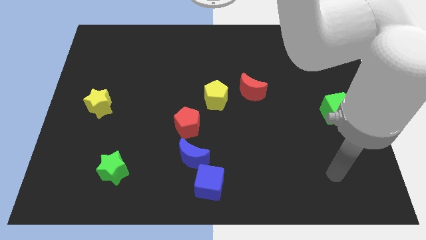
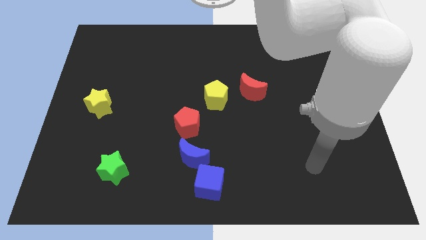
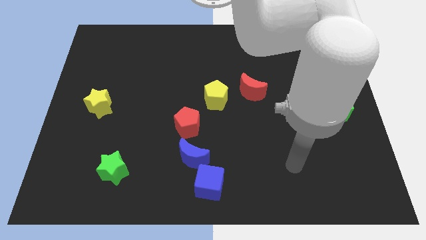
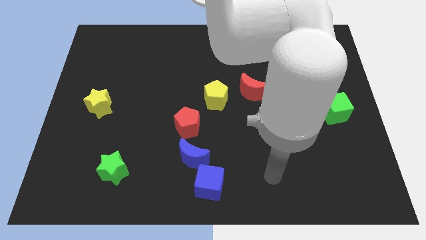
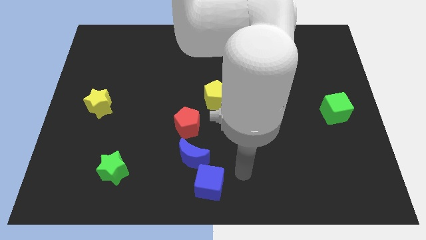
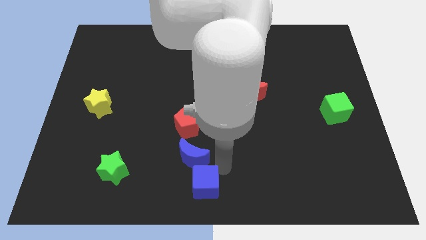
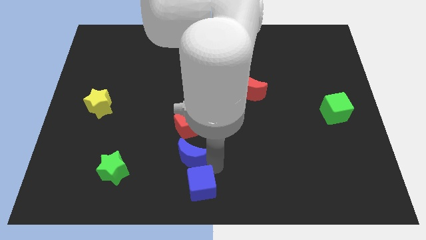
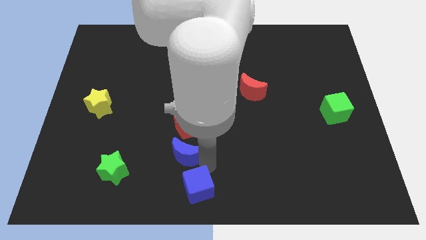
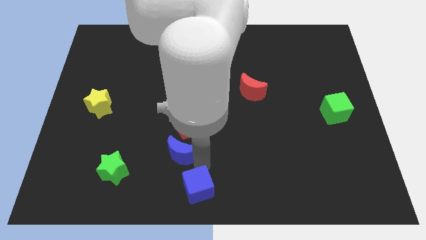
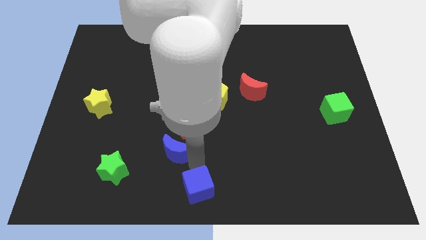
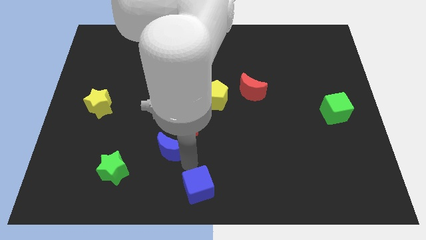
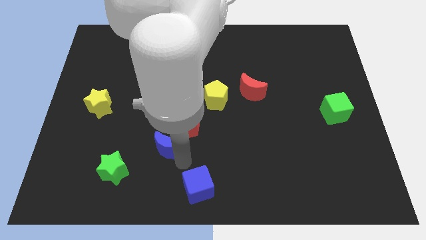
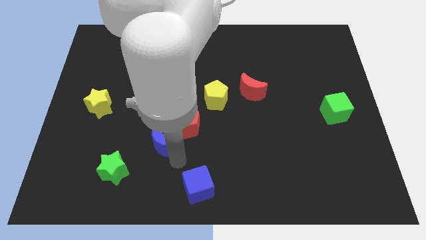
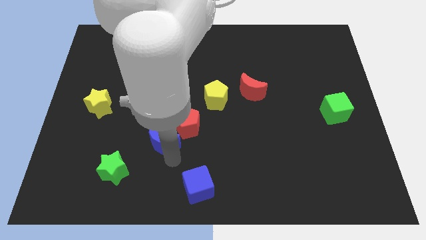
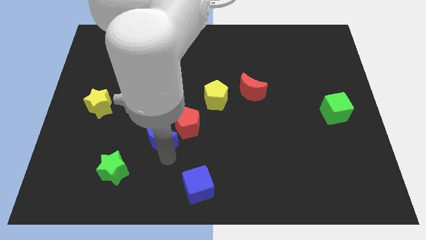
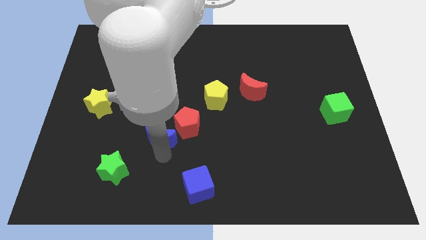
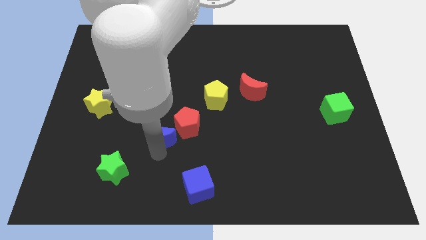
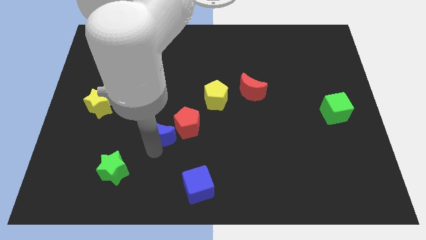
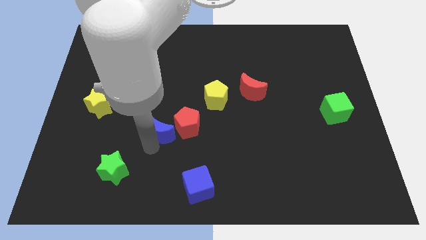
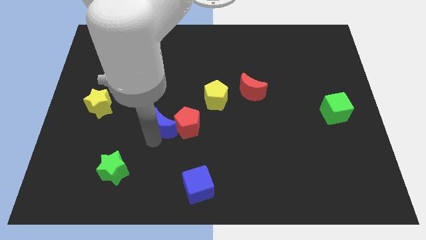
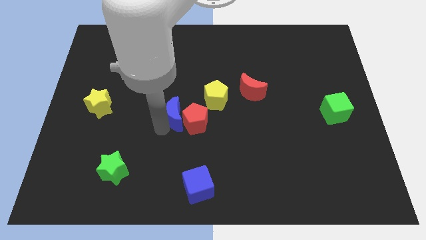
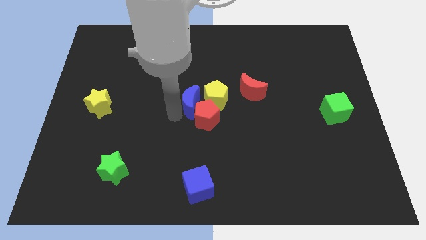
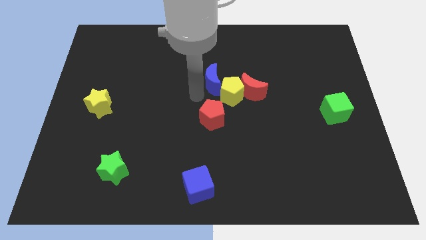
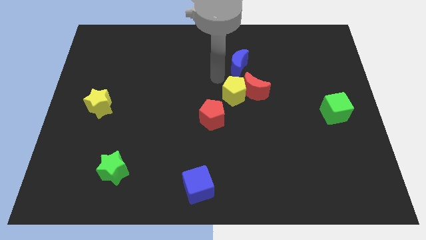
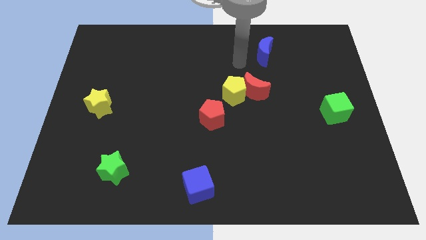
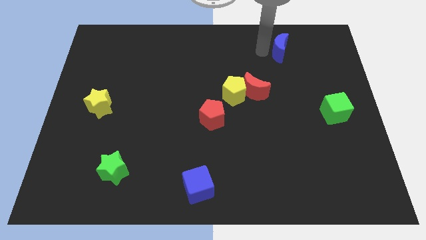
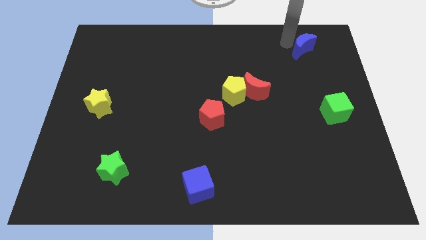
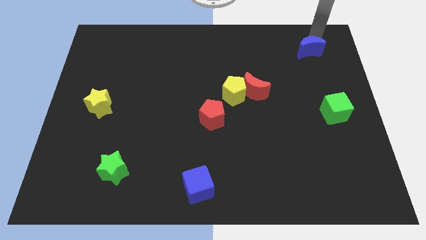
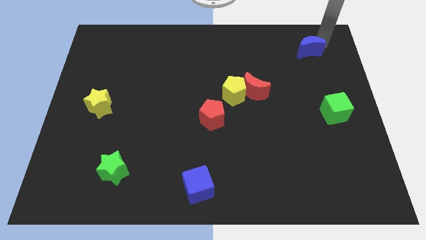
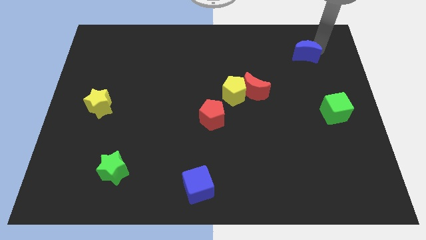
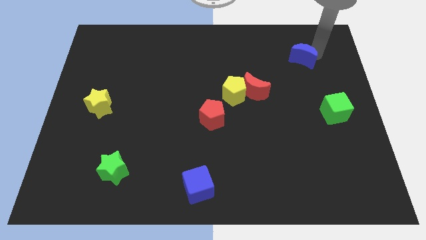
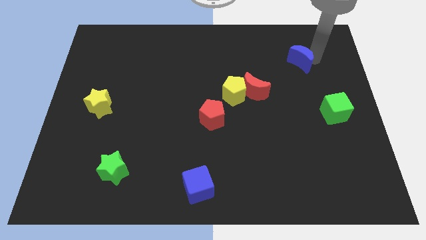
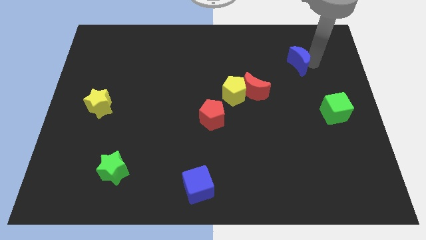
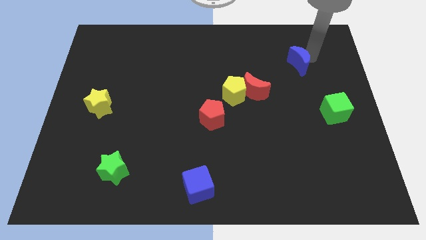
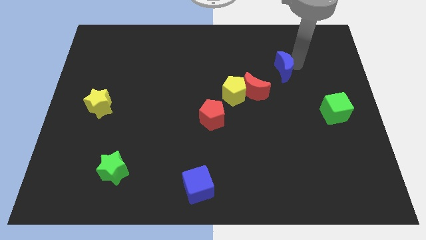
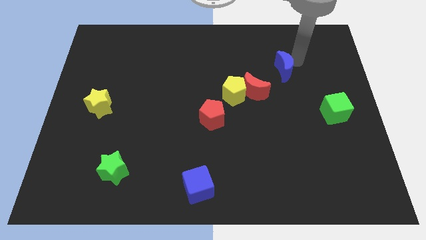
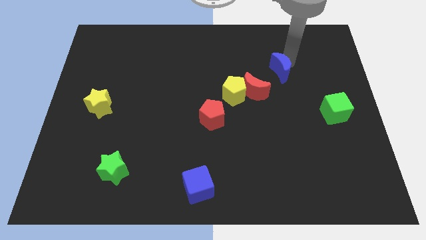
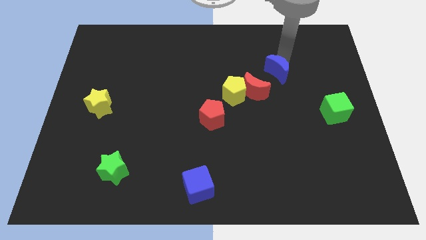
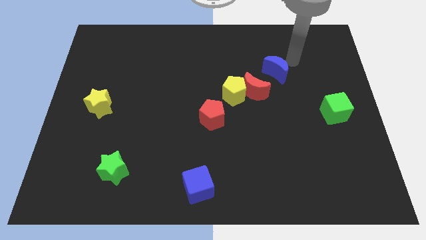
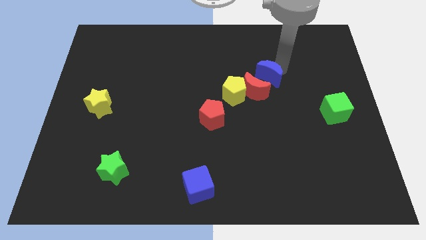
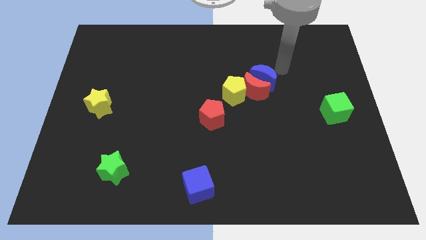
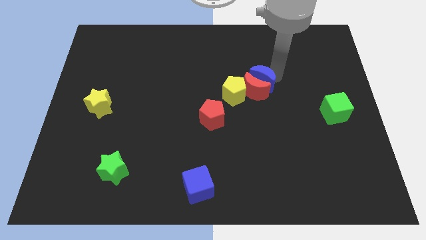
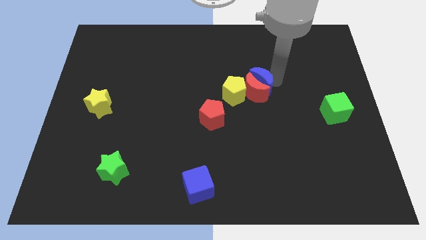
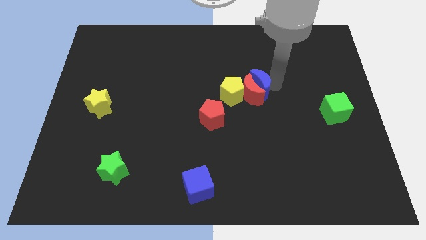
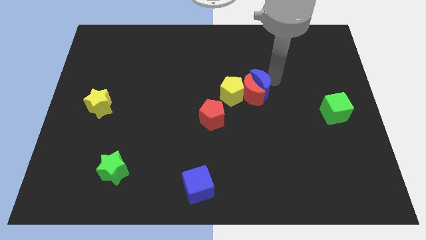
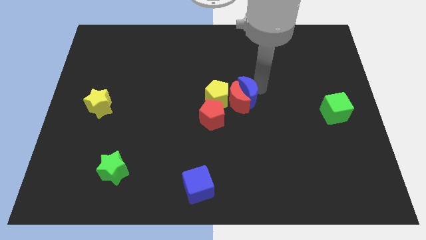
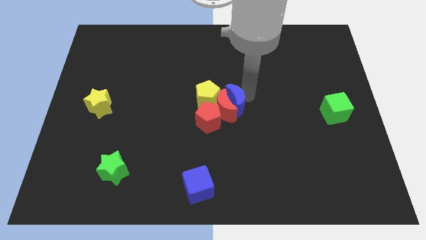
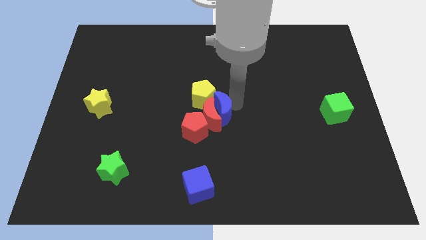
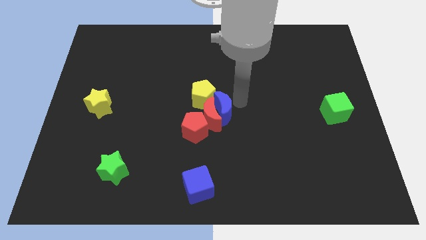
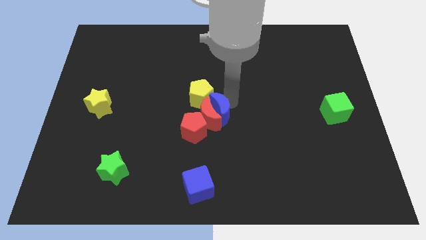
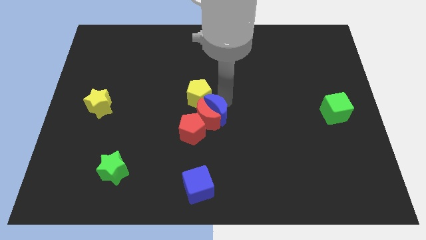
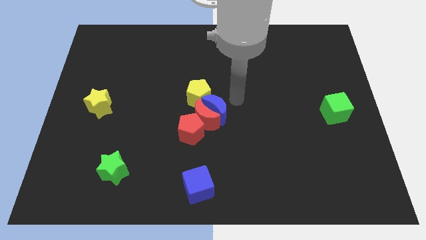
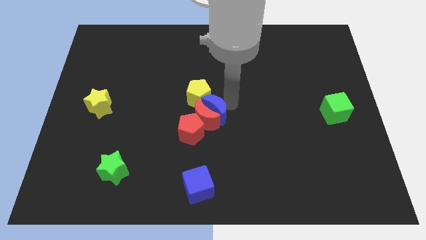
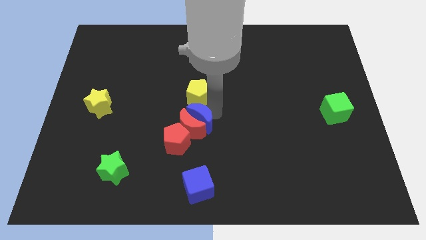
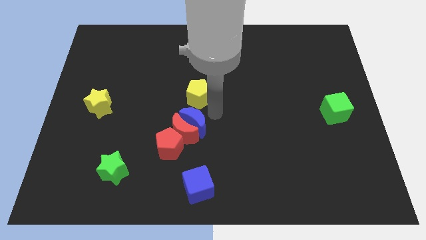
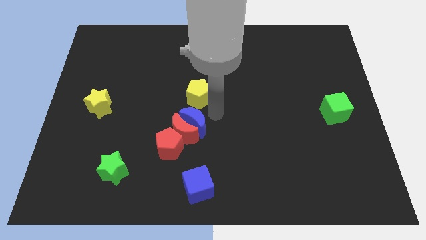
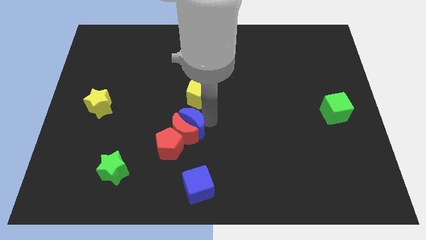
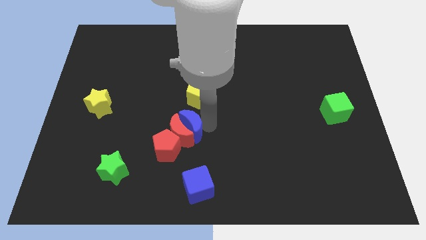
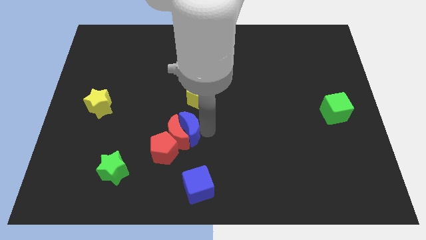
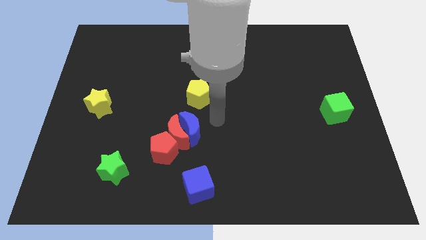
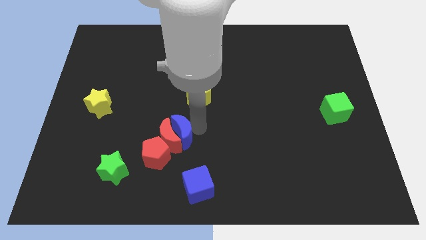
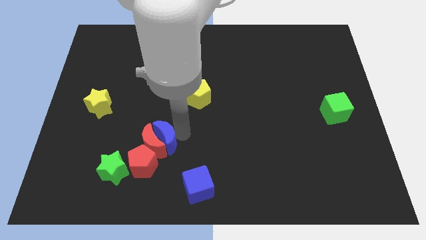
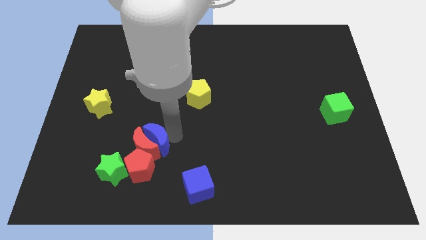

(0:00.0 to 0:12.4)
push the blue moon somewhat left

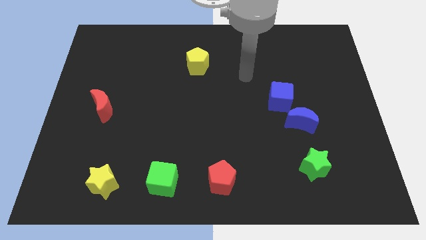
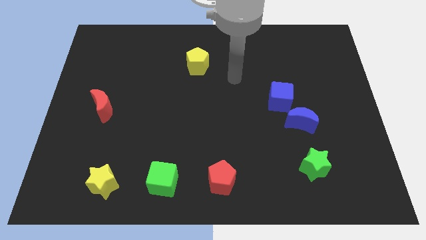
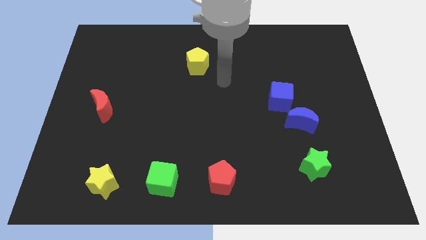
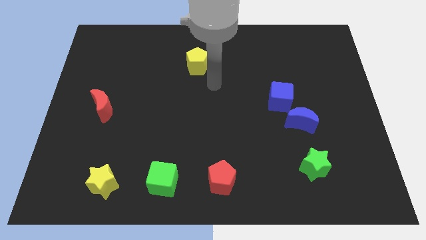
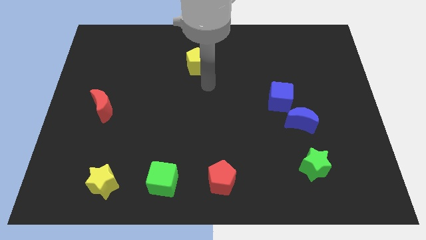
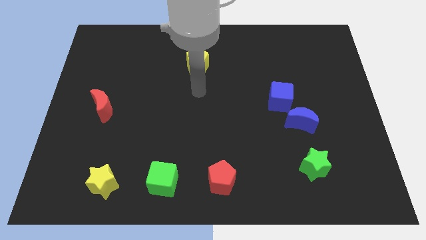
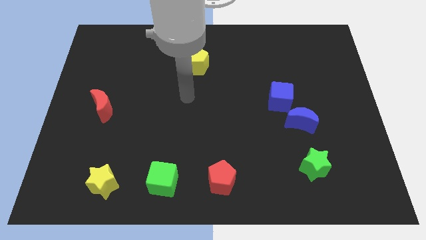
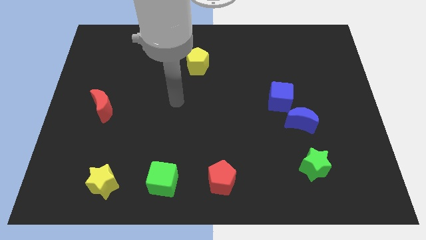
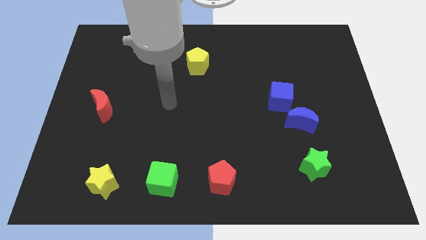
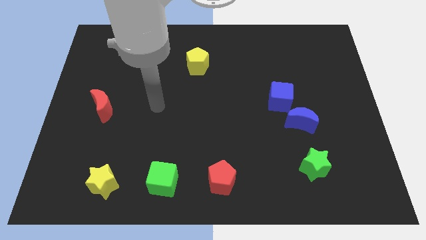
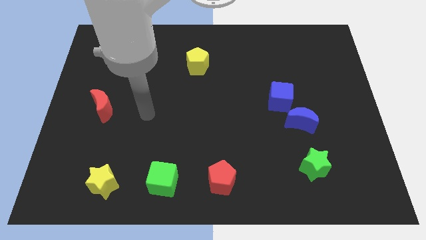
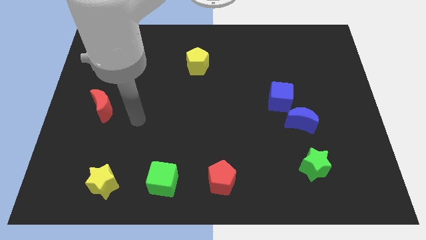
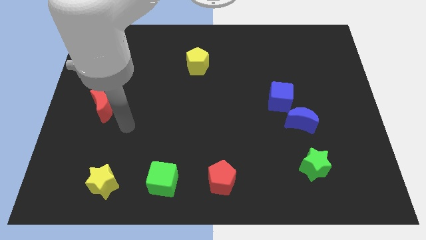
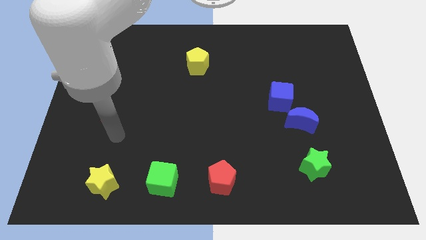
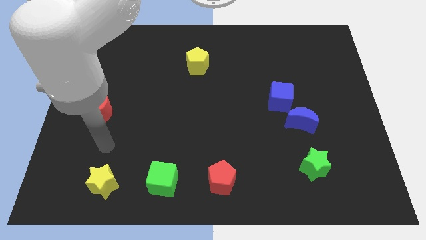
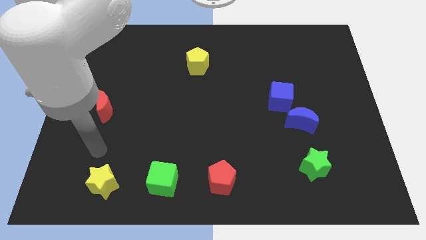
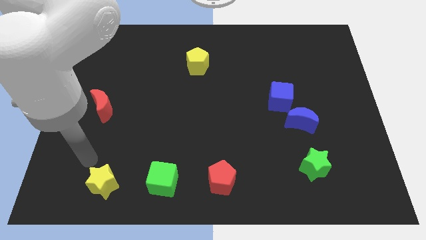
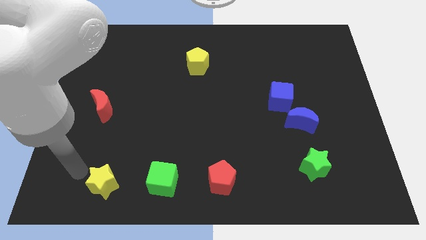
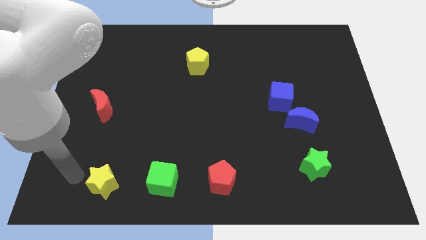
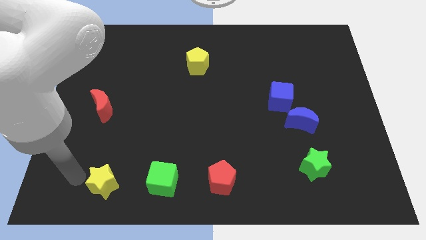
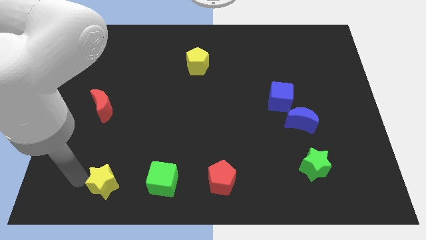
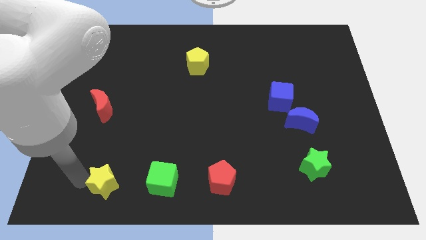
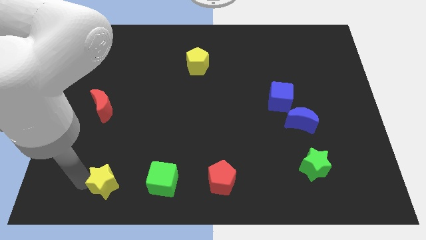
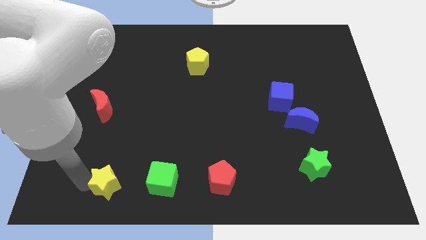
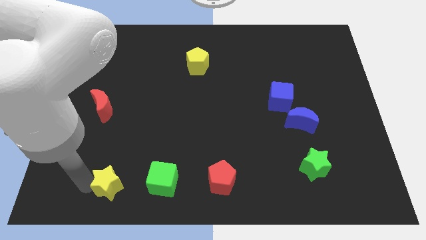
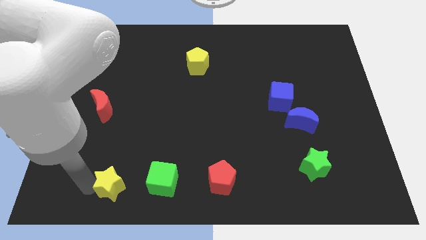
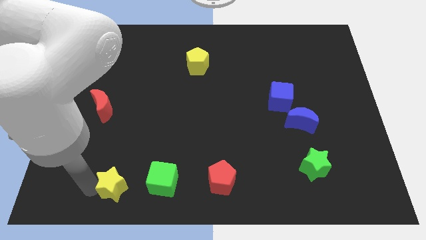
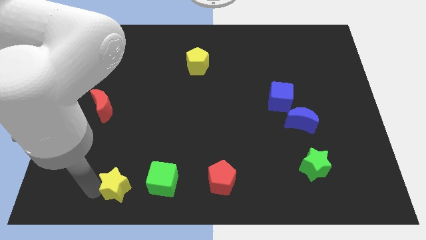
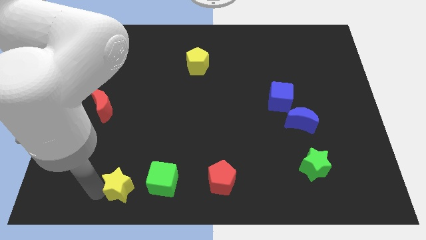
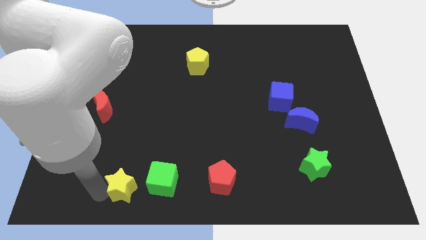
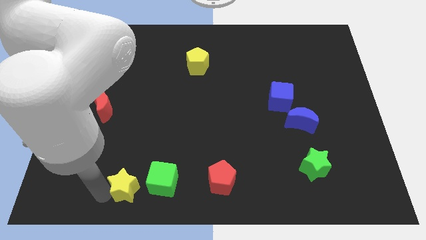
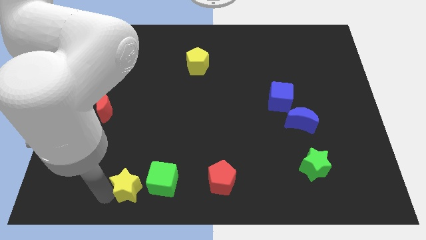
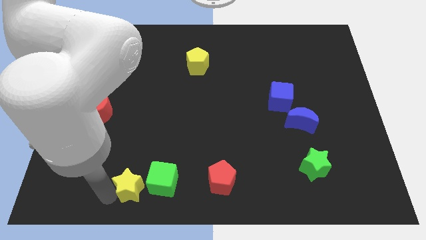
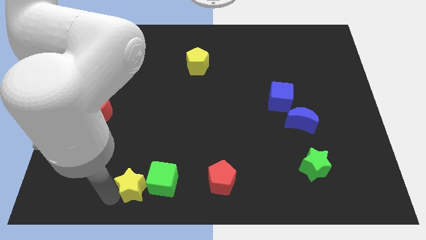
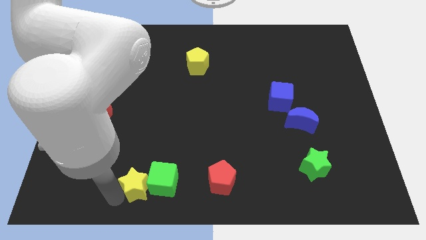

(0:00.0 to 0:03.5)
push the yellow star a little bit right
